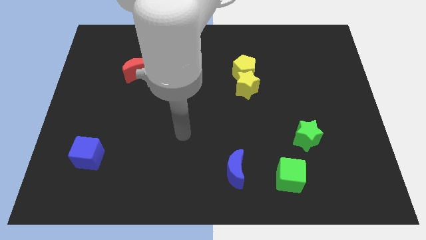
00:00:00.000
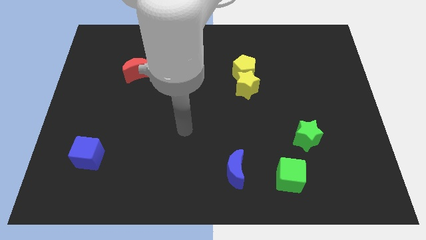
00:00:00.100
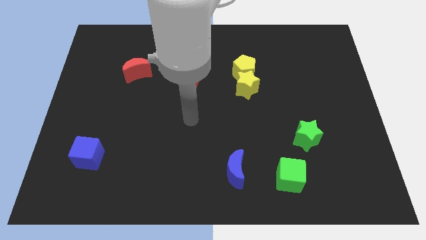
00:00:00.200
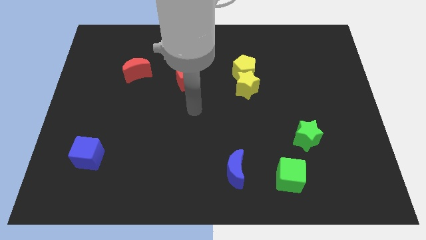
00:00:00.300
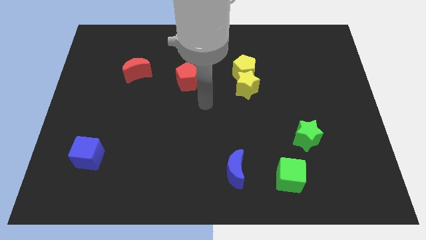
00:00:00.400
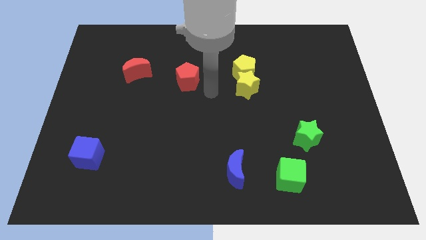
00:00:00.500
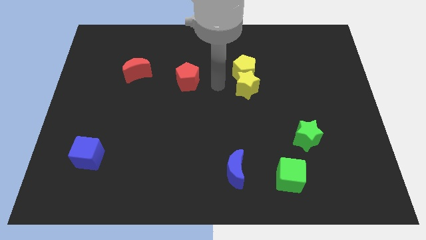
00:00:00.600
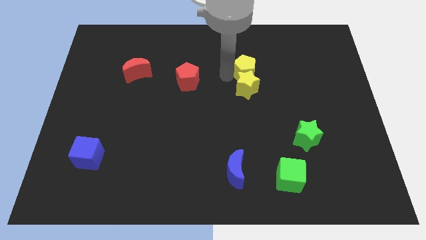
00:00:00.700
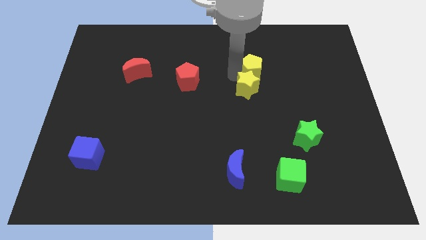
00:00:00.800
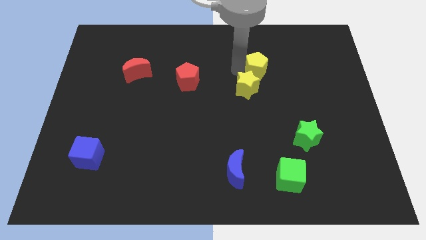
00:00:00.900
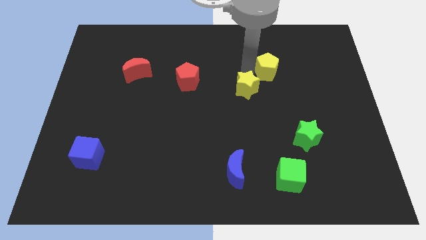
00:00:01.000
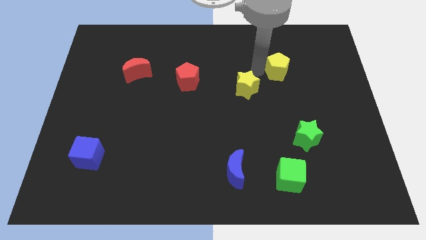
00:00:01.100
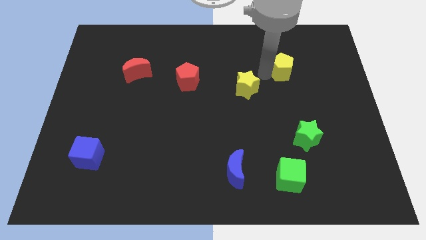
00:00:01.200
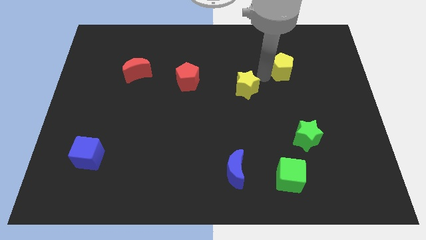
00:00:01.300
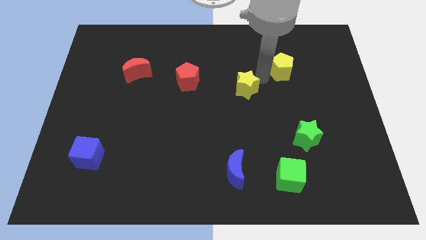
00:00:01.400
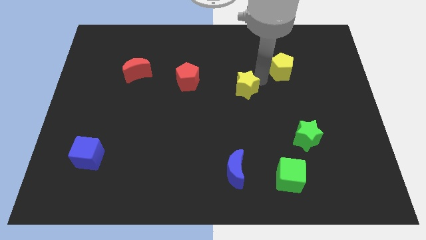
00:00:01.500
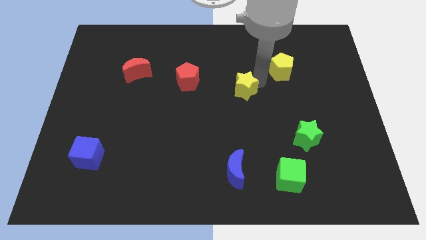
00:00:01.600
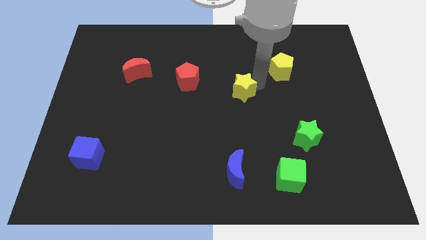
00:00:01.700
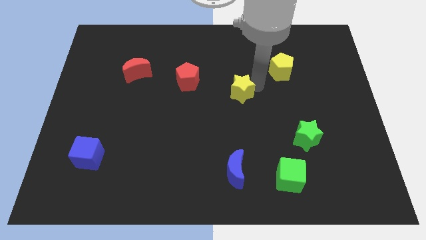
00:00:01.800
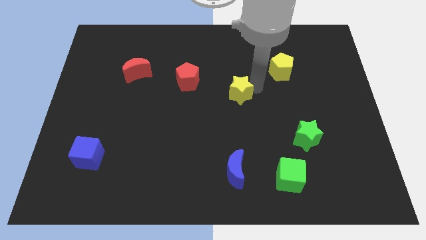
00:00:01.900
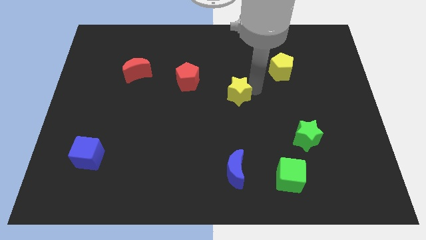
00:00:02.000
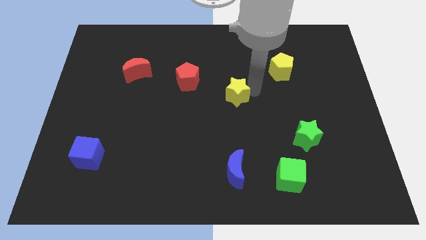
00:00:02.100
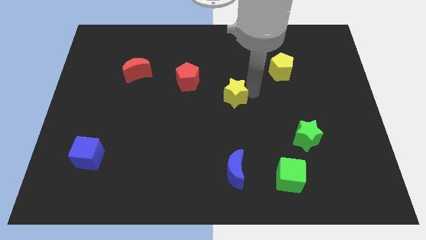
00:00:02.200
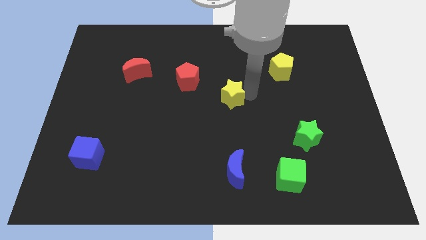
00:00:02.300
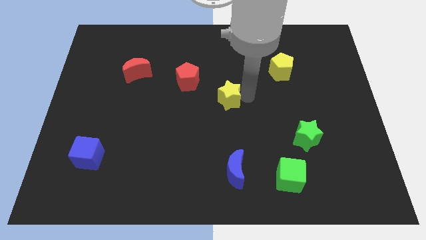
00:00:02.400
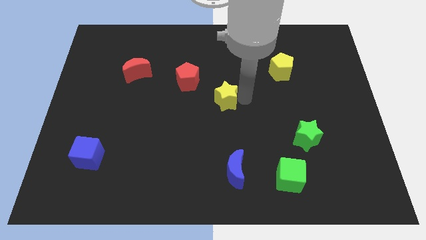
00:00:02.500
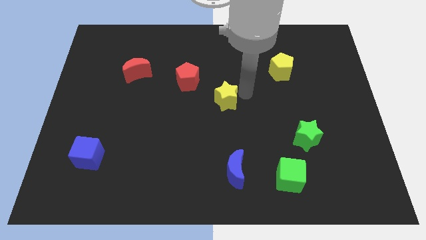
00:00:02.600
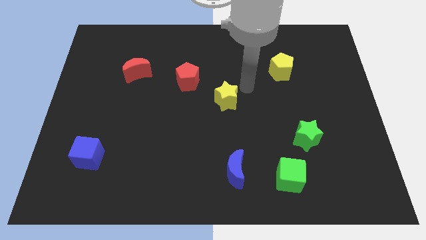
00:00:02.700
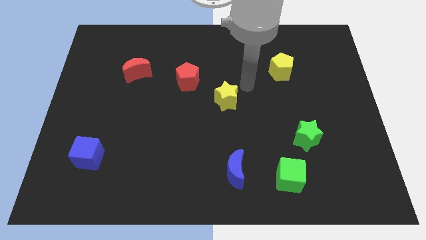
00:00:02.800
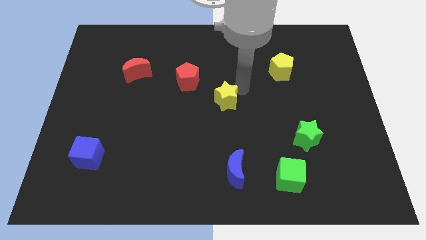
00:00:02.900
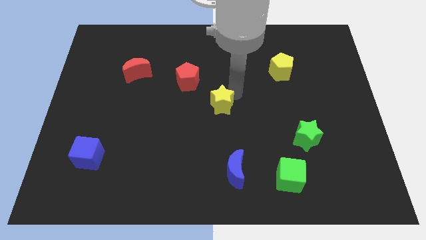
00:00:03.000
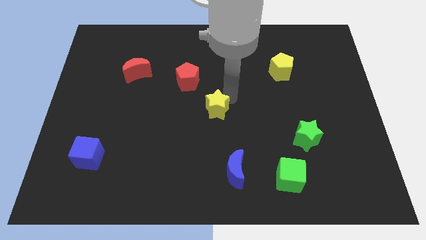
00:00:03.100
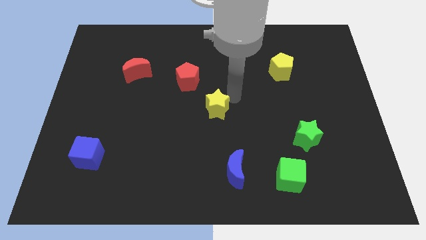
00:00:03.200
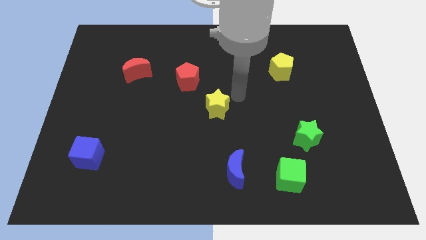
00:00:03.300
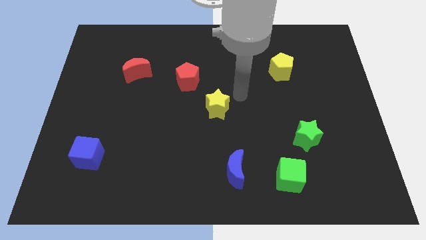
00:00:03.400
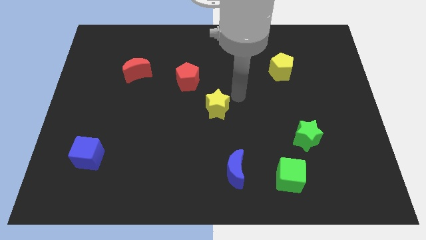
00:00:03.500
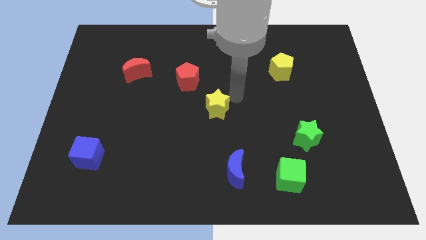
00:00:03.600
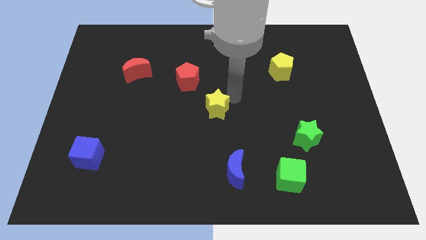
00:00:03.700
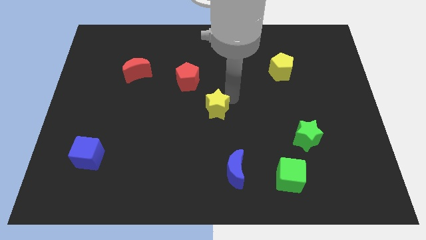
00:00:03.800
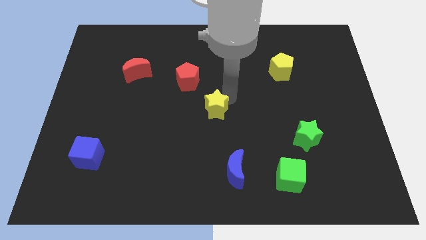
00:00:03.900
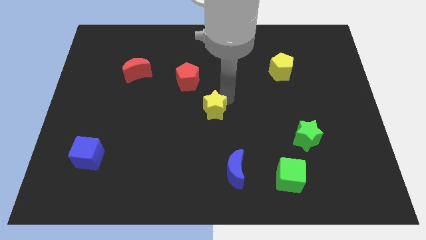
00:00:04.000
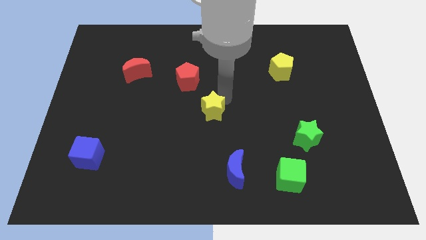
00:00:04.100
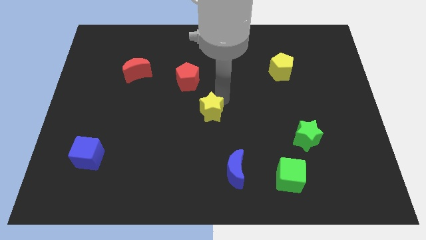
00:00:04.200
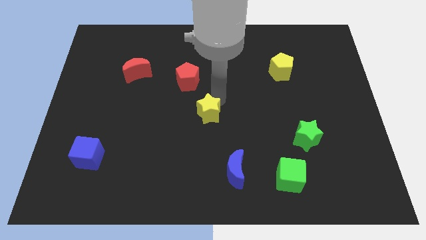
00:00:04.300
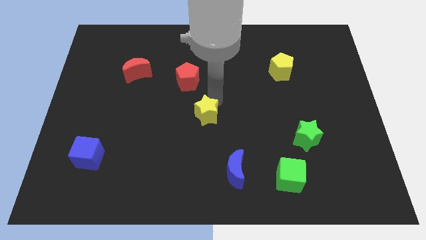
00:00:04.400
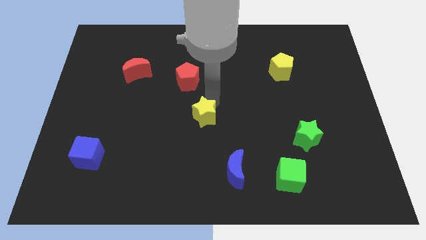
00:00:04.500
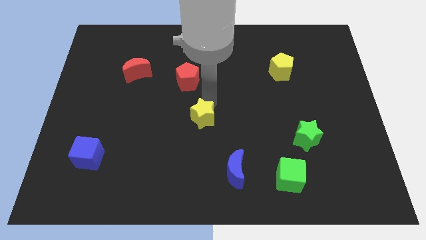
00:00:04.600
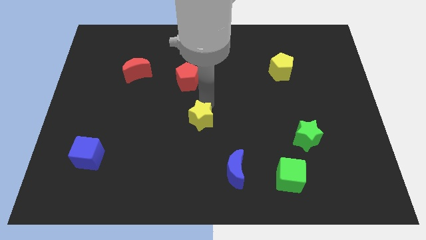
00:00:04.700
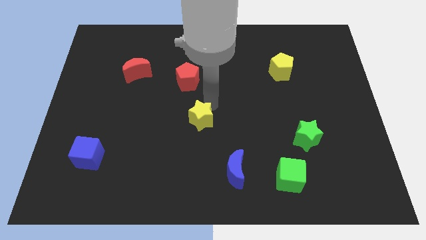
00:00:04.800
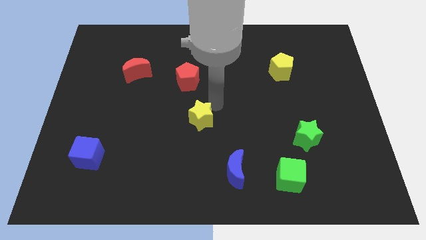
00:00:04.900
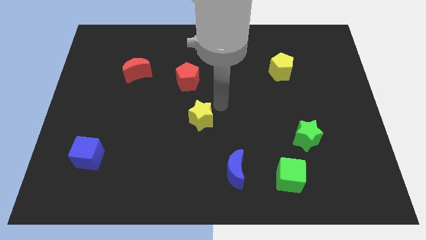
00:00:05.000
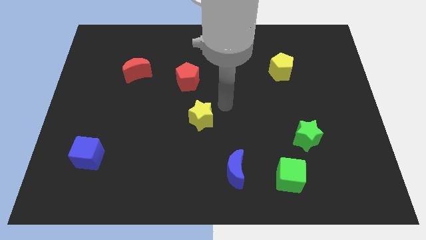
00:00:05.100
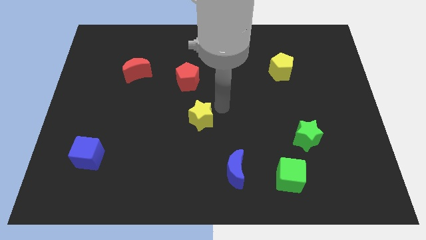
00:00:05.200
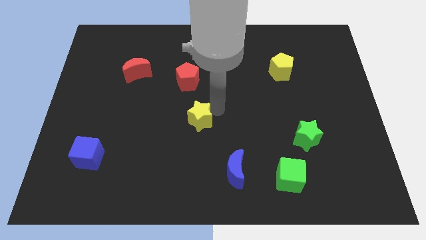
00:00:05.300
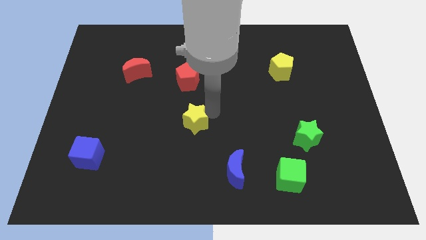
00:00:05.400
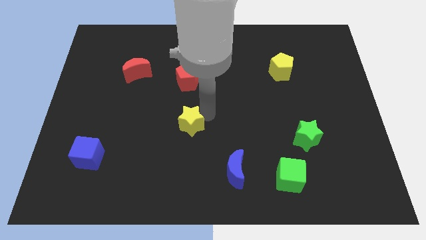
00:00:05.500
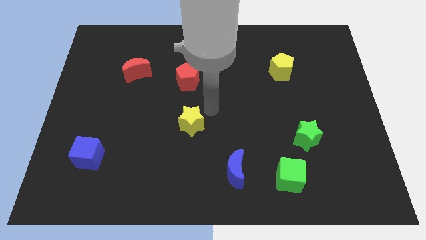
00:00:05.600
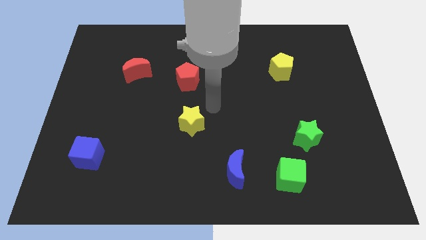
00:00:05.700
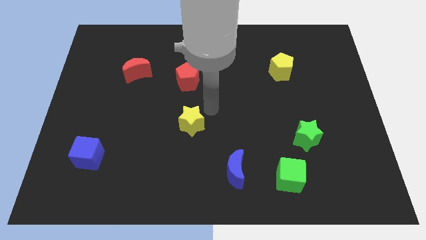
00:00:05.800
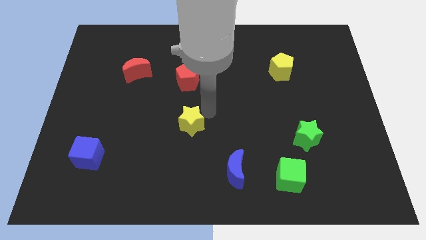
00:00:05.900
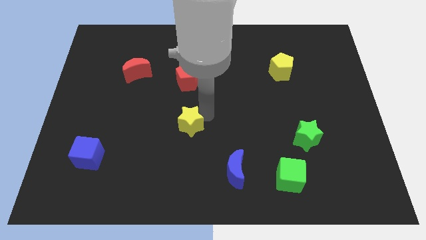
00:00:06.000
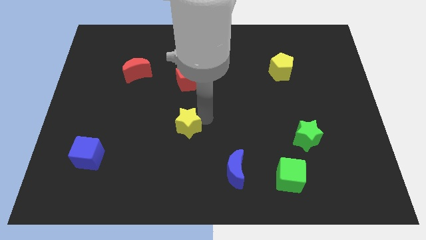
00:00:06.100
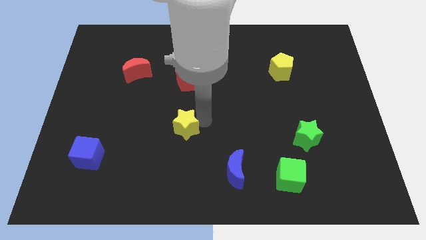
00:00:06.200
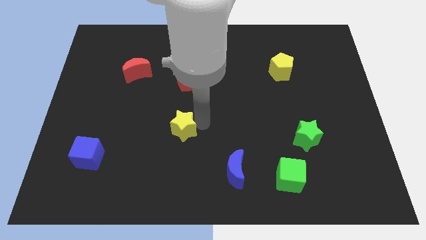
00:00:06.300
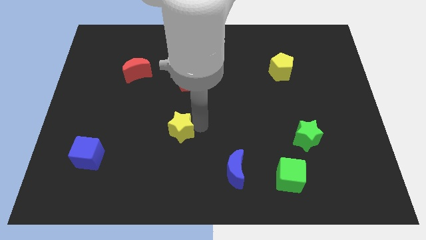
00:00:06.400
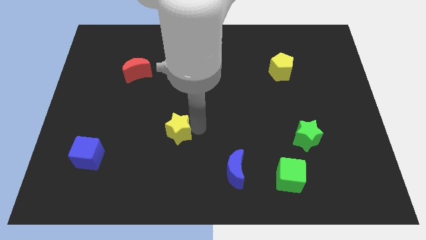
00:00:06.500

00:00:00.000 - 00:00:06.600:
move the yellow star downwards and left diagonally

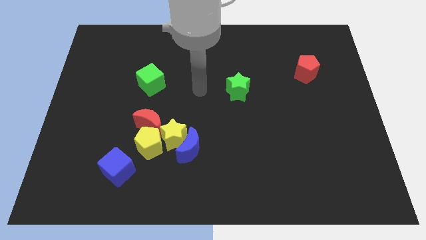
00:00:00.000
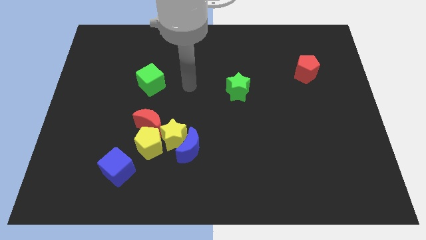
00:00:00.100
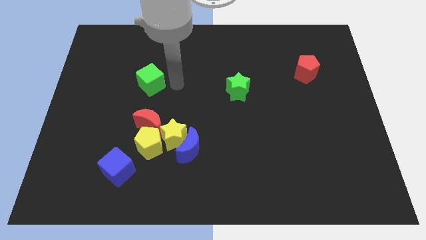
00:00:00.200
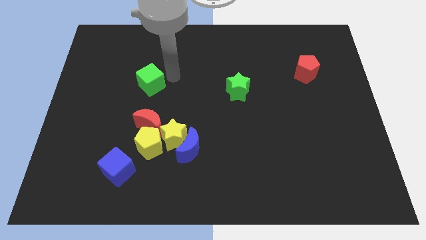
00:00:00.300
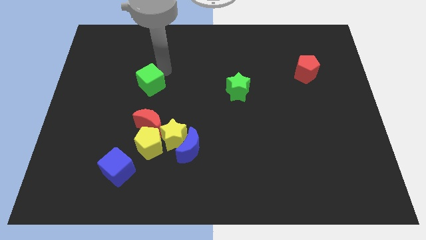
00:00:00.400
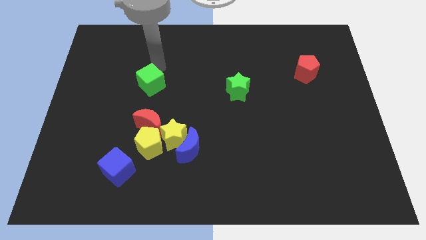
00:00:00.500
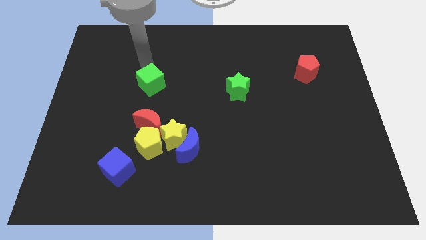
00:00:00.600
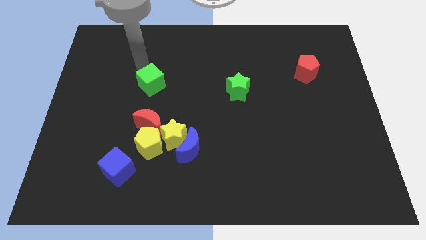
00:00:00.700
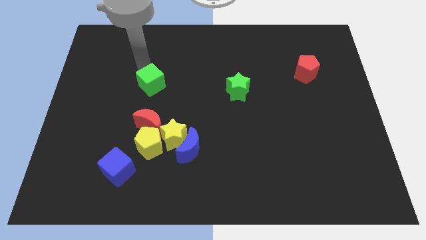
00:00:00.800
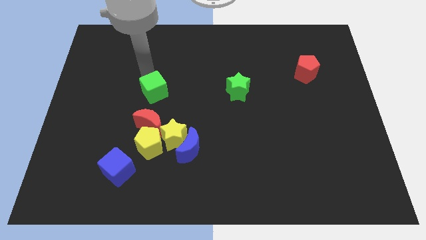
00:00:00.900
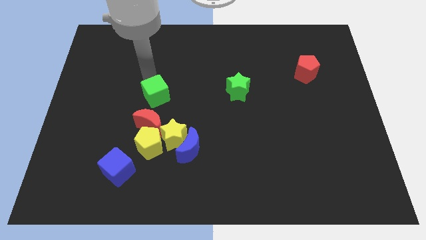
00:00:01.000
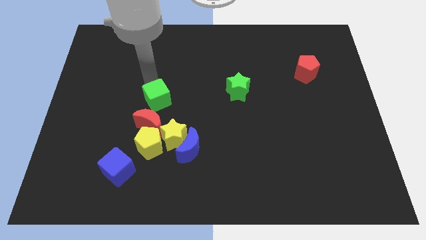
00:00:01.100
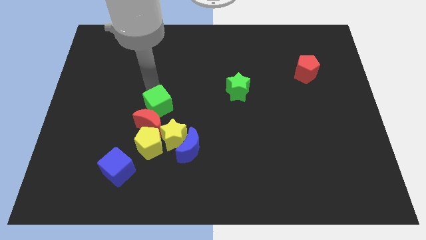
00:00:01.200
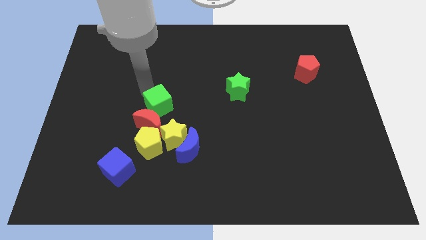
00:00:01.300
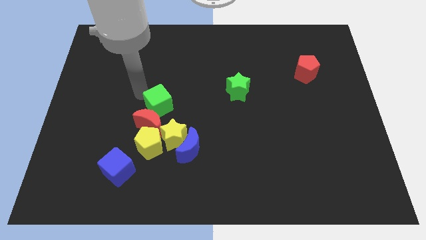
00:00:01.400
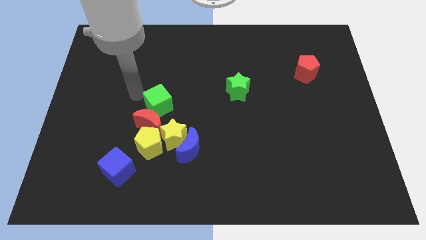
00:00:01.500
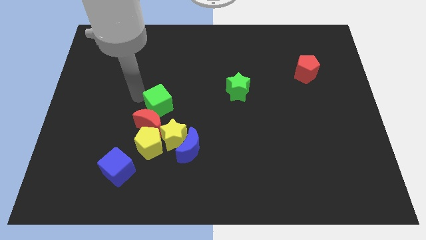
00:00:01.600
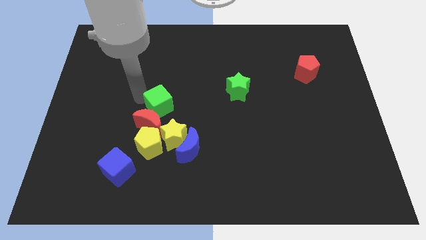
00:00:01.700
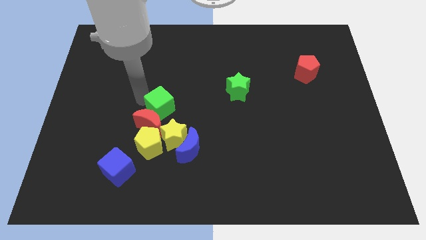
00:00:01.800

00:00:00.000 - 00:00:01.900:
slide the green cube downwards and then right slightly
